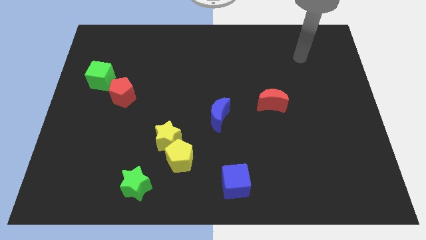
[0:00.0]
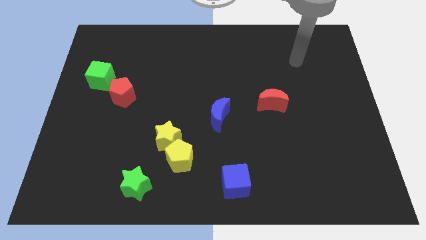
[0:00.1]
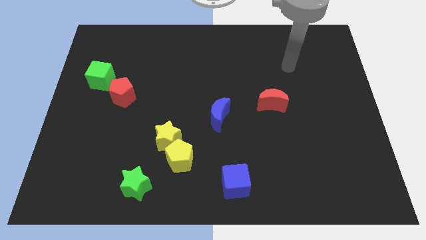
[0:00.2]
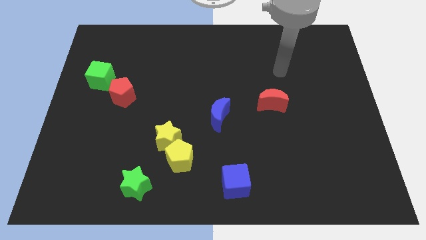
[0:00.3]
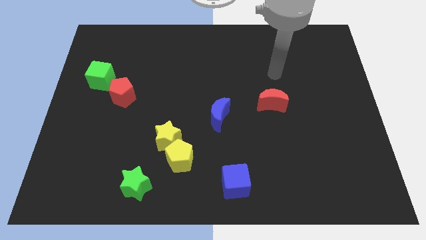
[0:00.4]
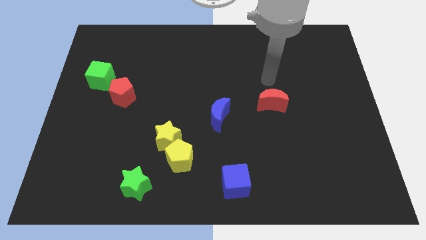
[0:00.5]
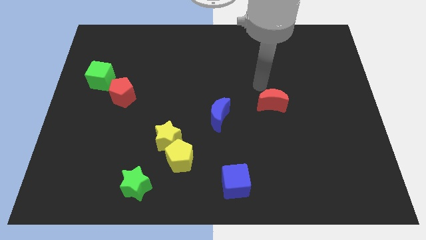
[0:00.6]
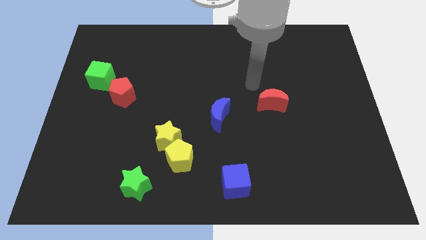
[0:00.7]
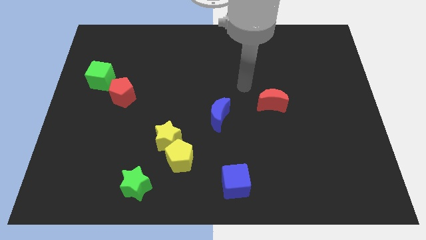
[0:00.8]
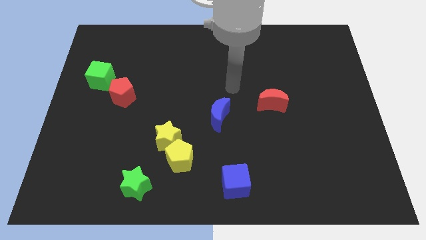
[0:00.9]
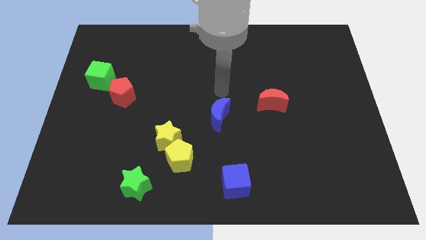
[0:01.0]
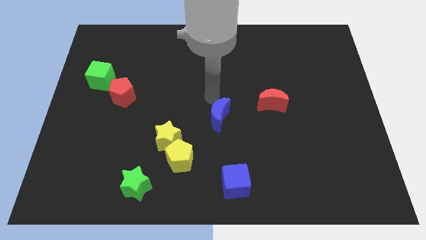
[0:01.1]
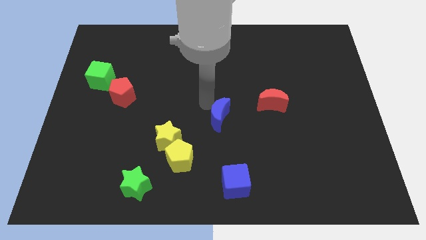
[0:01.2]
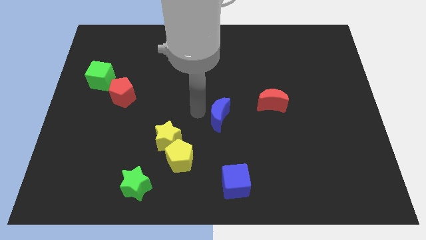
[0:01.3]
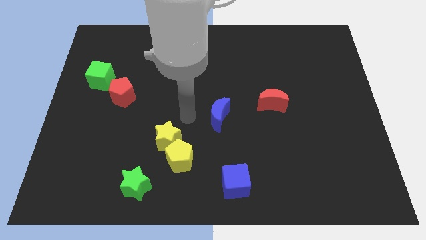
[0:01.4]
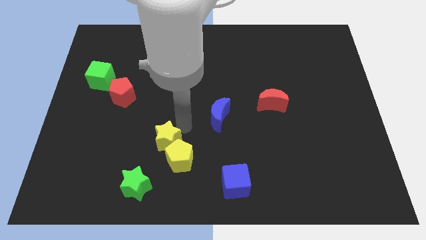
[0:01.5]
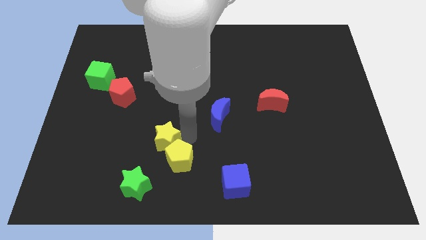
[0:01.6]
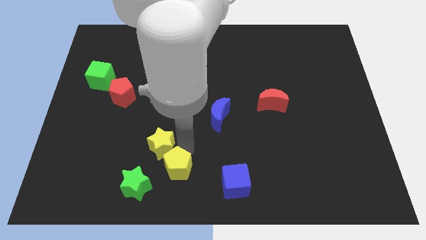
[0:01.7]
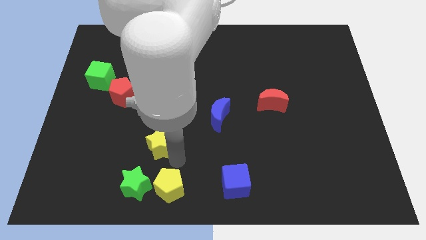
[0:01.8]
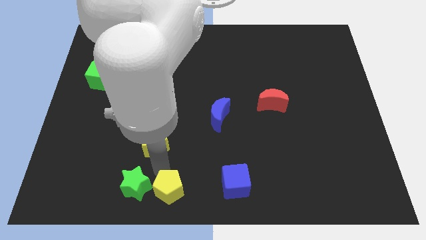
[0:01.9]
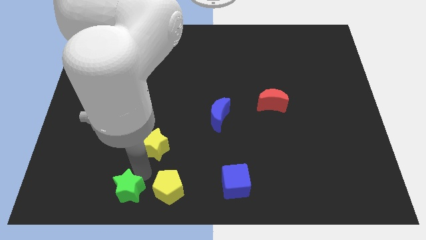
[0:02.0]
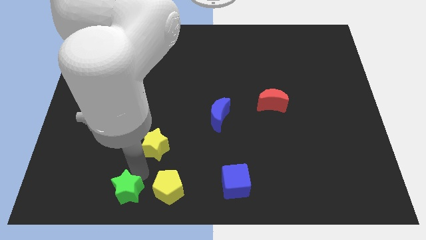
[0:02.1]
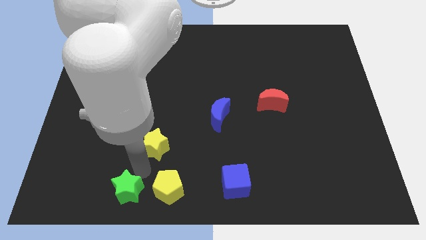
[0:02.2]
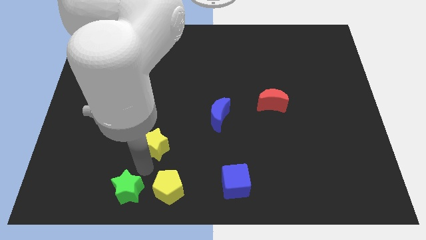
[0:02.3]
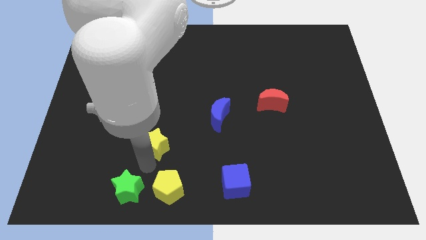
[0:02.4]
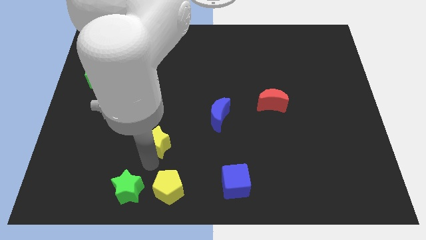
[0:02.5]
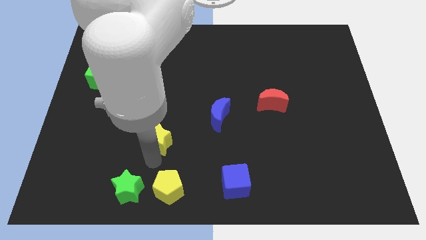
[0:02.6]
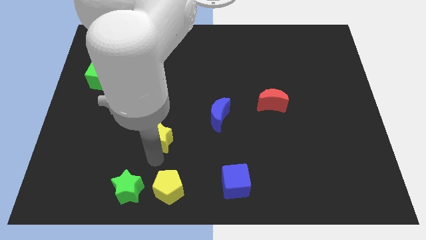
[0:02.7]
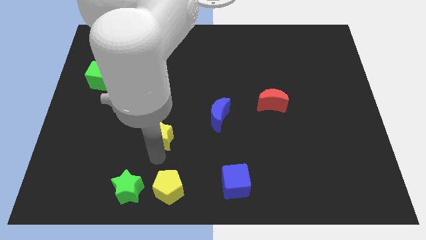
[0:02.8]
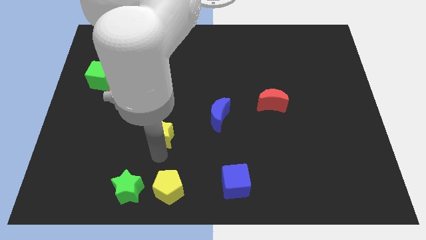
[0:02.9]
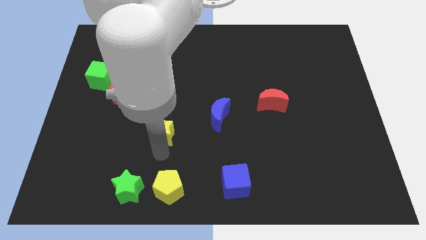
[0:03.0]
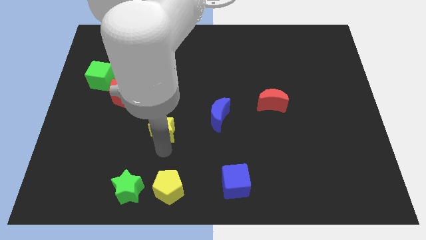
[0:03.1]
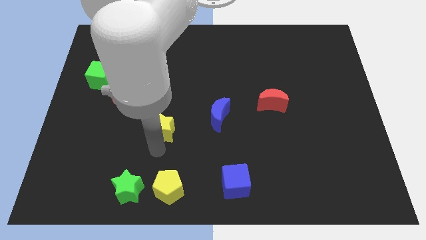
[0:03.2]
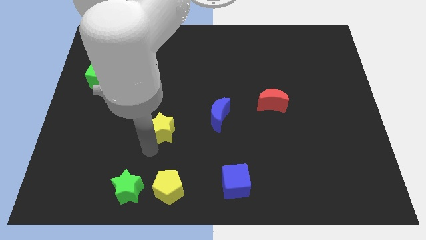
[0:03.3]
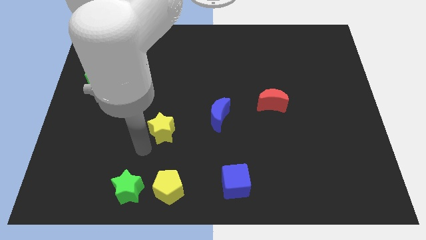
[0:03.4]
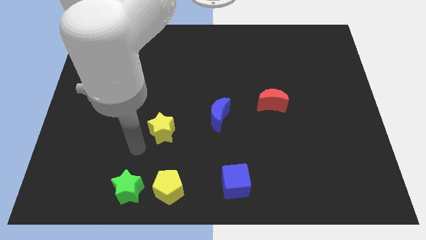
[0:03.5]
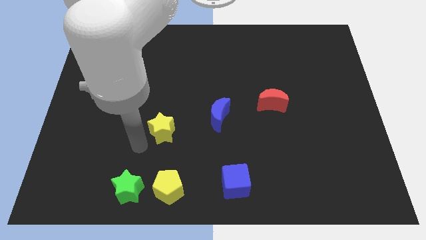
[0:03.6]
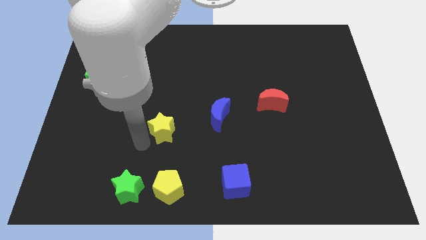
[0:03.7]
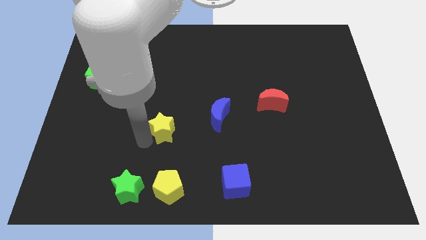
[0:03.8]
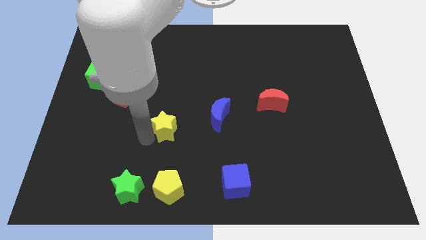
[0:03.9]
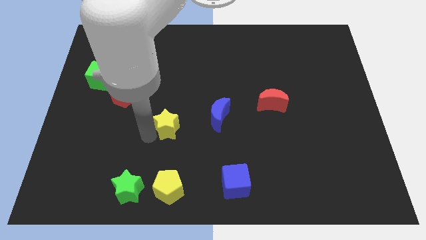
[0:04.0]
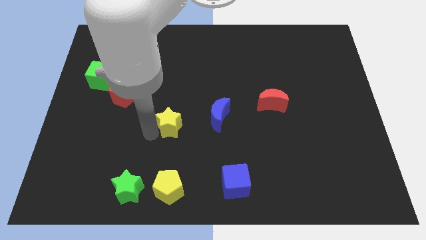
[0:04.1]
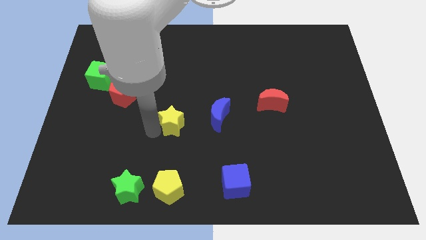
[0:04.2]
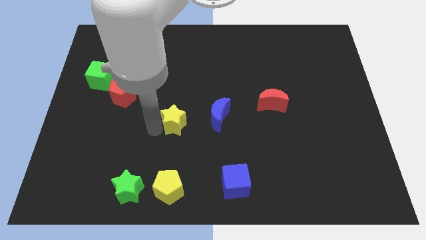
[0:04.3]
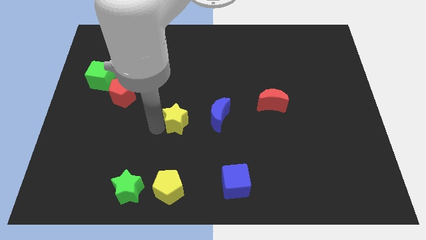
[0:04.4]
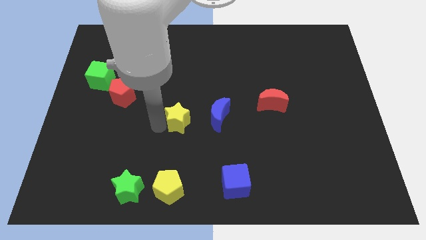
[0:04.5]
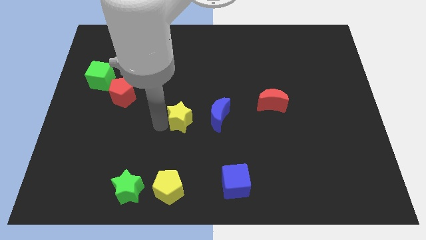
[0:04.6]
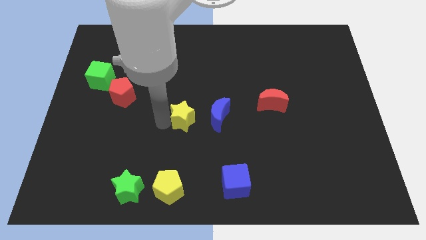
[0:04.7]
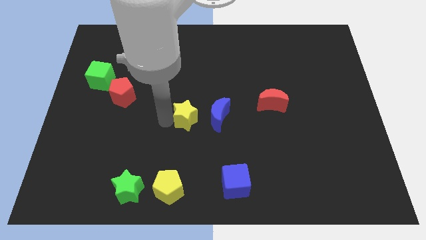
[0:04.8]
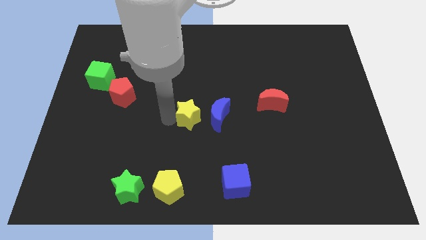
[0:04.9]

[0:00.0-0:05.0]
push the yellow star a little bit diagonally up and right

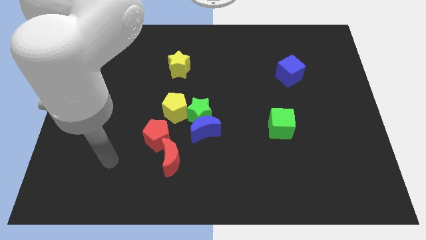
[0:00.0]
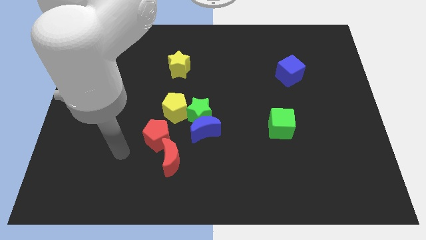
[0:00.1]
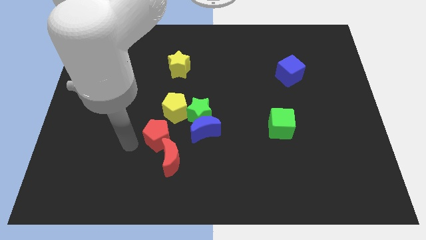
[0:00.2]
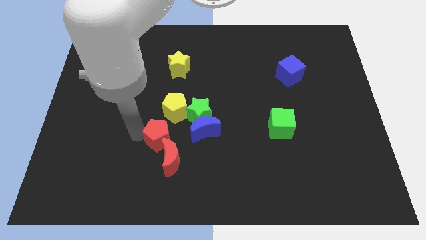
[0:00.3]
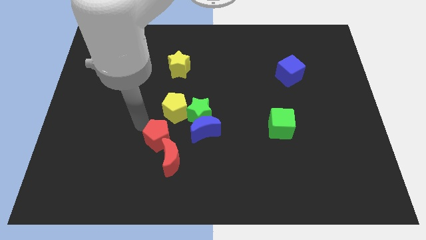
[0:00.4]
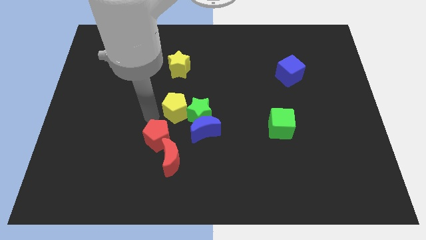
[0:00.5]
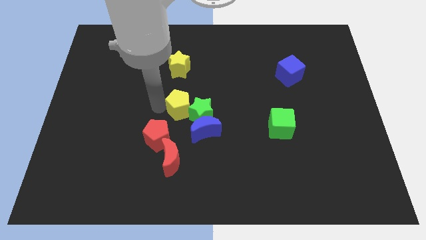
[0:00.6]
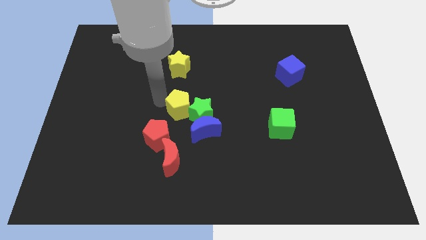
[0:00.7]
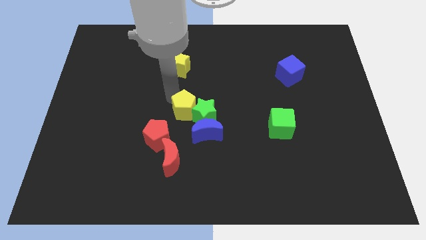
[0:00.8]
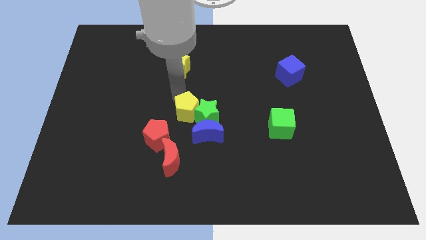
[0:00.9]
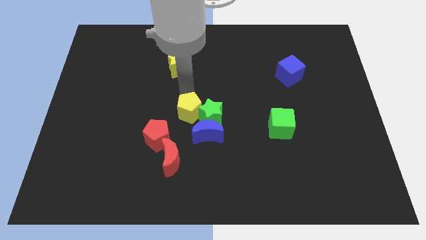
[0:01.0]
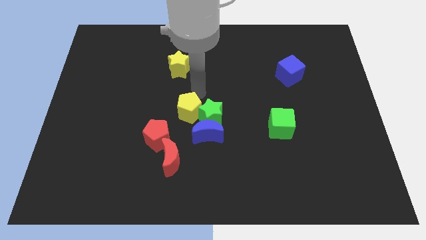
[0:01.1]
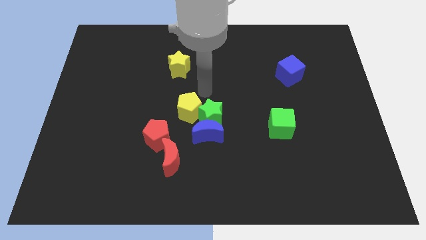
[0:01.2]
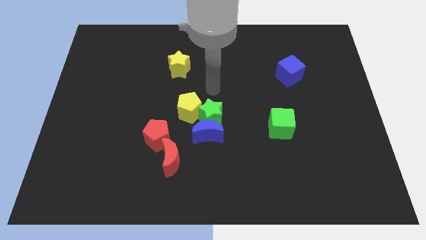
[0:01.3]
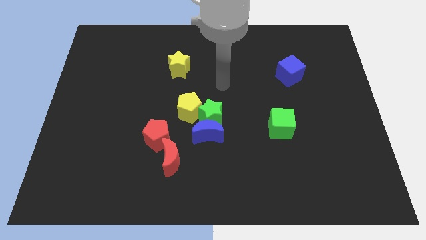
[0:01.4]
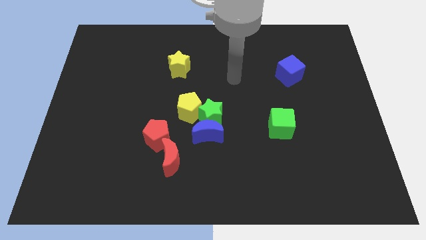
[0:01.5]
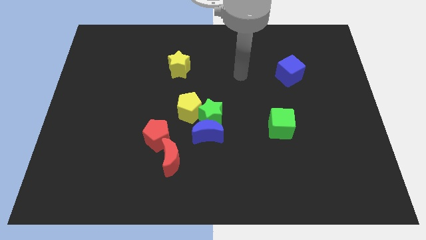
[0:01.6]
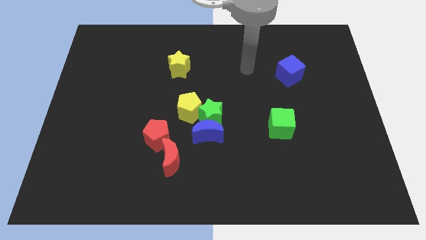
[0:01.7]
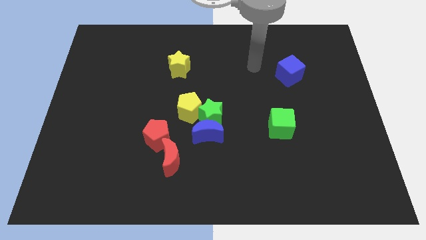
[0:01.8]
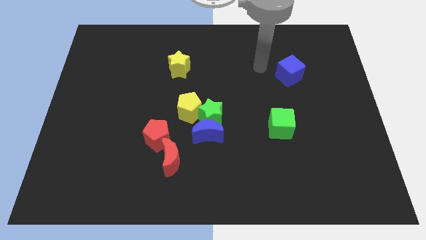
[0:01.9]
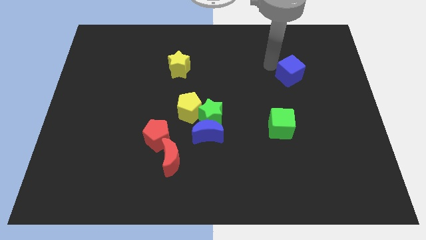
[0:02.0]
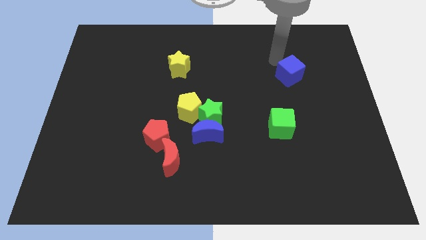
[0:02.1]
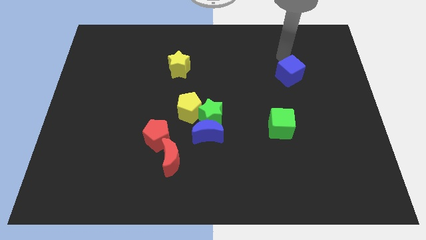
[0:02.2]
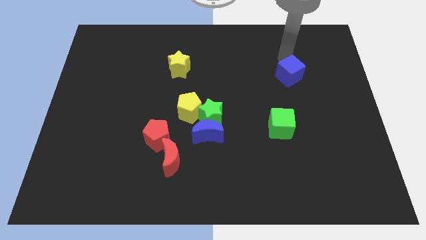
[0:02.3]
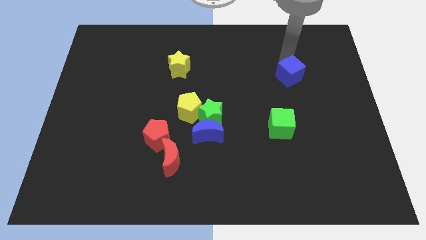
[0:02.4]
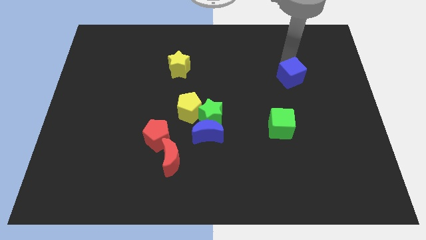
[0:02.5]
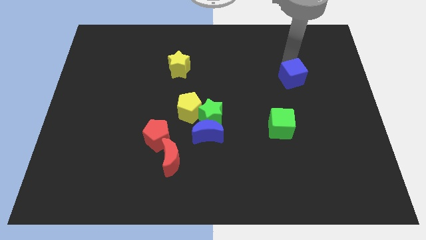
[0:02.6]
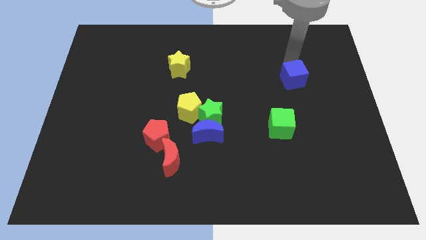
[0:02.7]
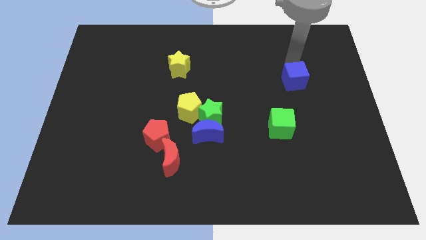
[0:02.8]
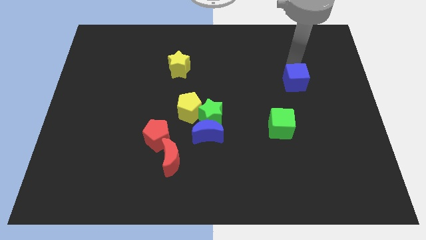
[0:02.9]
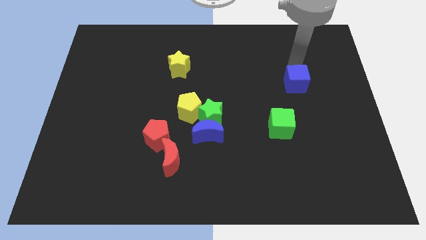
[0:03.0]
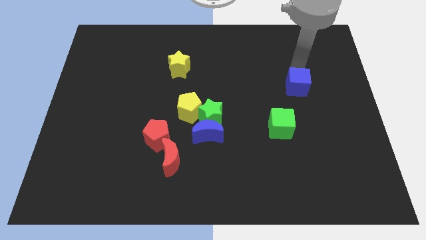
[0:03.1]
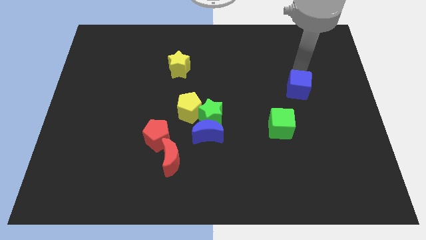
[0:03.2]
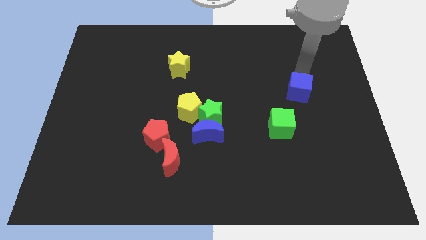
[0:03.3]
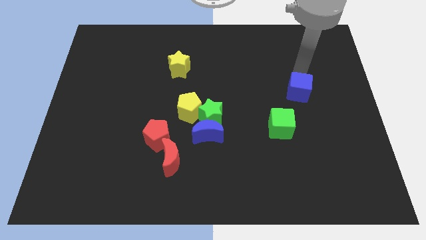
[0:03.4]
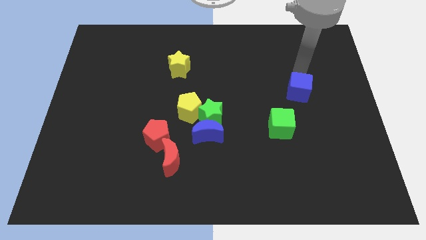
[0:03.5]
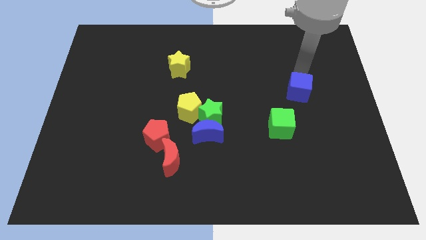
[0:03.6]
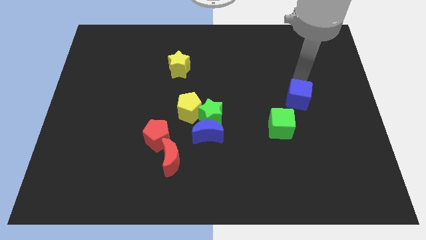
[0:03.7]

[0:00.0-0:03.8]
slightly slide the blue cube downwards
